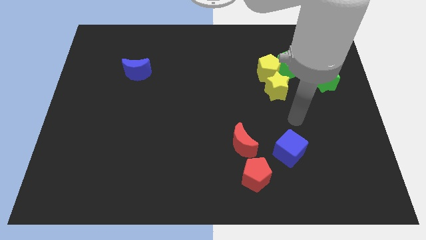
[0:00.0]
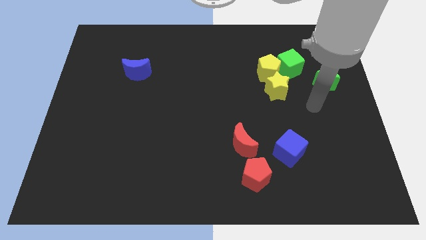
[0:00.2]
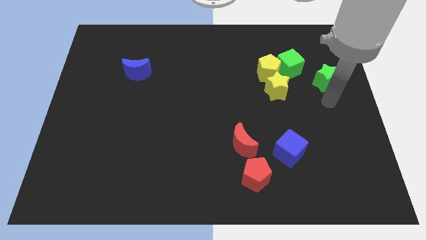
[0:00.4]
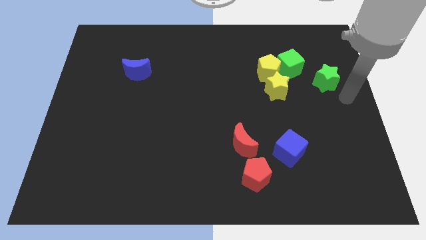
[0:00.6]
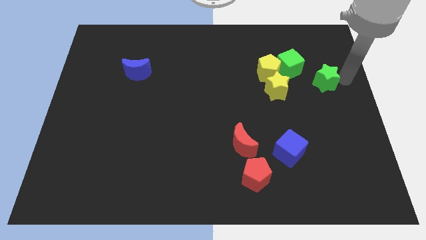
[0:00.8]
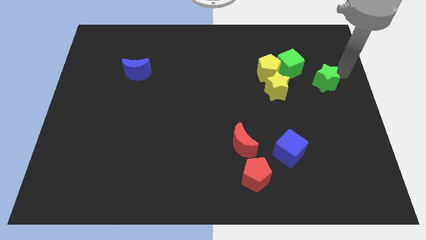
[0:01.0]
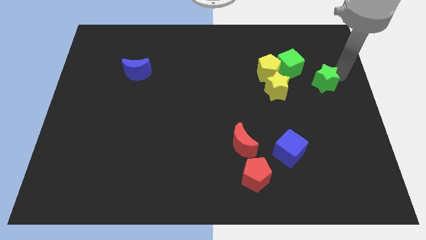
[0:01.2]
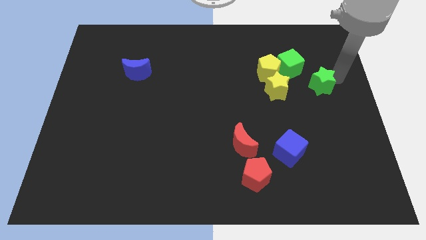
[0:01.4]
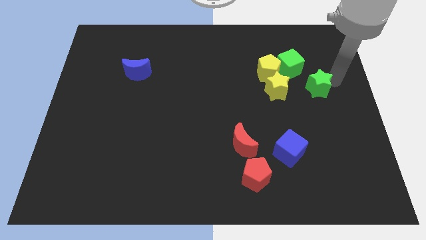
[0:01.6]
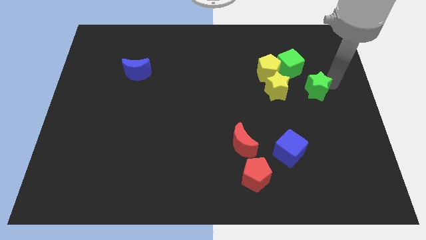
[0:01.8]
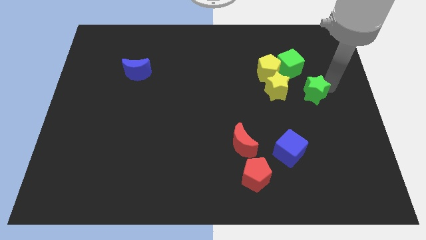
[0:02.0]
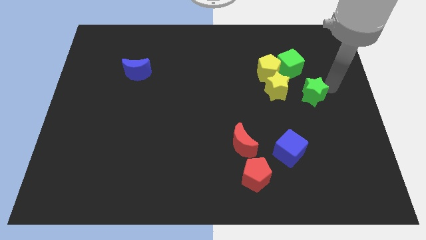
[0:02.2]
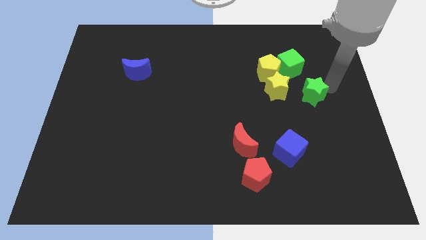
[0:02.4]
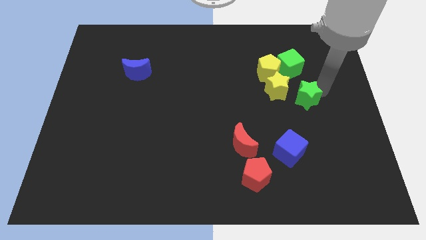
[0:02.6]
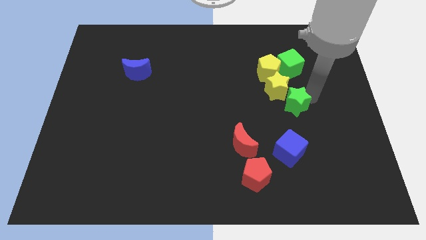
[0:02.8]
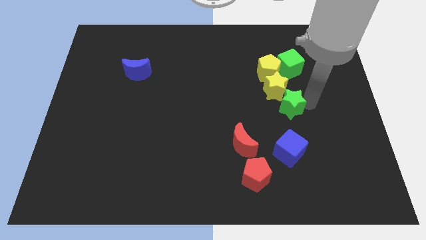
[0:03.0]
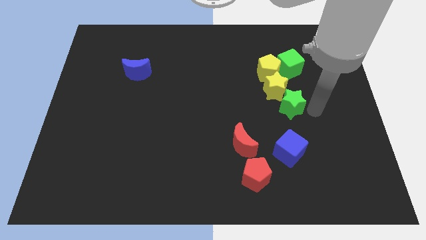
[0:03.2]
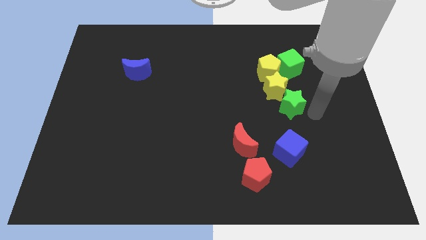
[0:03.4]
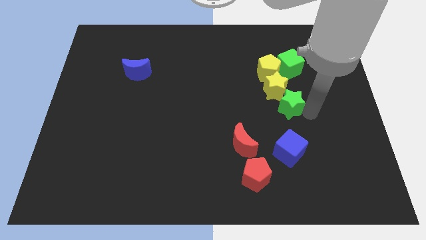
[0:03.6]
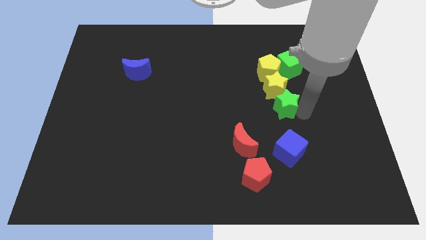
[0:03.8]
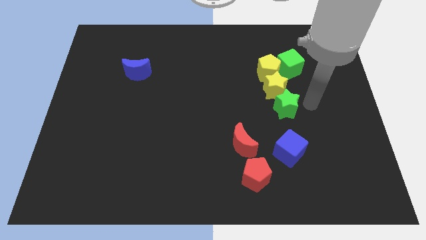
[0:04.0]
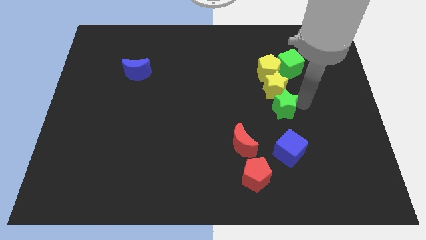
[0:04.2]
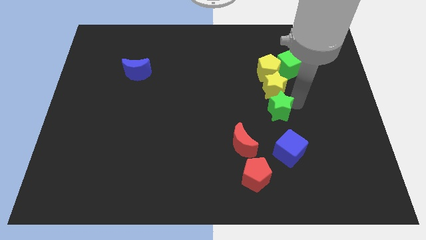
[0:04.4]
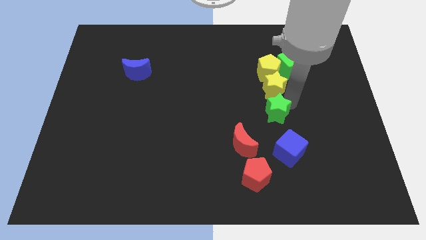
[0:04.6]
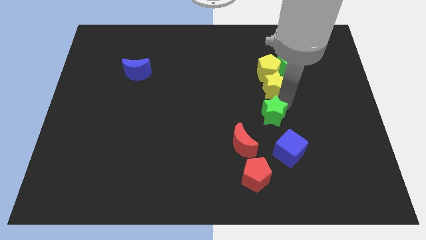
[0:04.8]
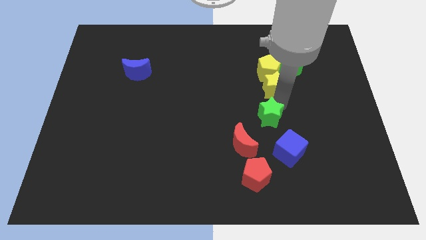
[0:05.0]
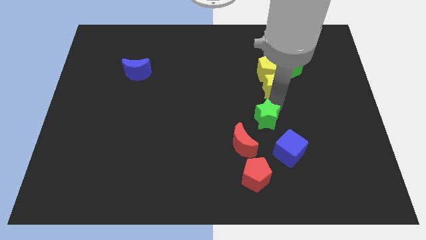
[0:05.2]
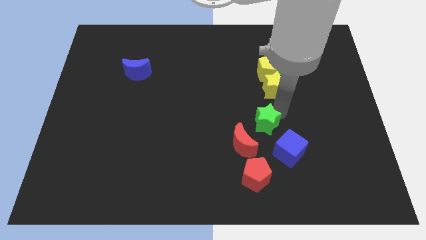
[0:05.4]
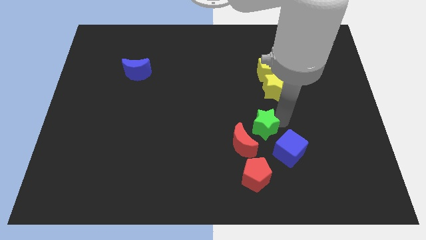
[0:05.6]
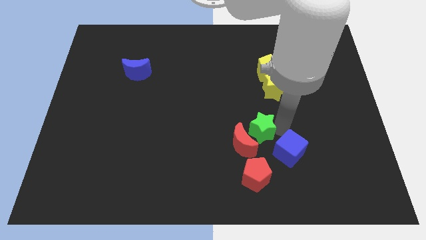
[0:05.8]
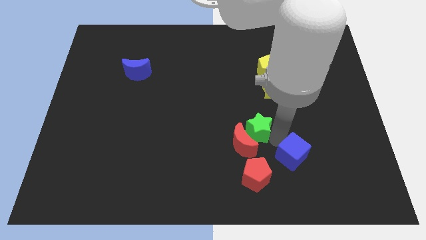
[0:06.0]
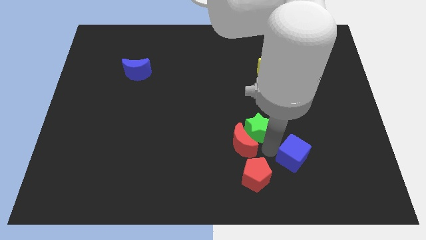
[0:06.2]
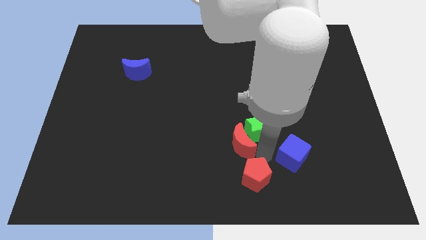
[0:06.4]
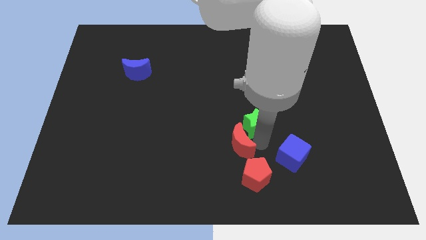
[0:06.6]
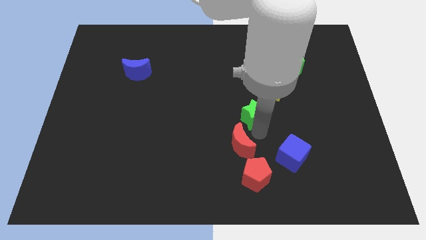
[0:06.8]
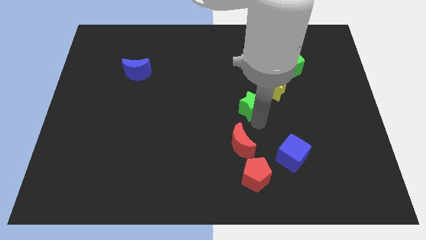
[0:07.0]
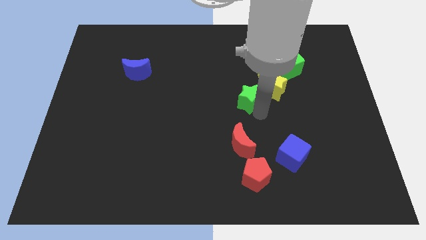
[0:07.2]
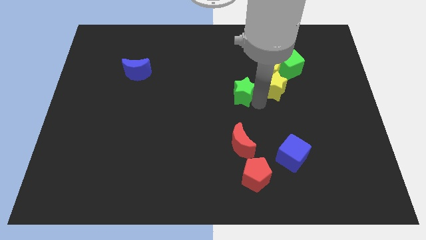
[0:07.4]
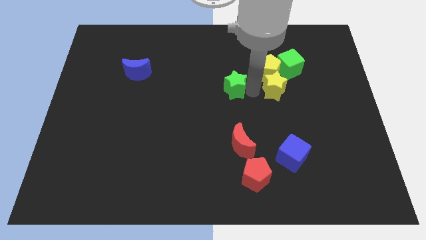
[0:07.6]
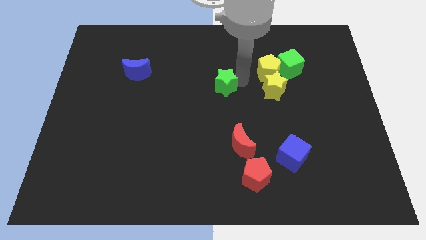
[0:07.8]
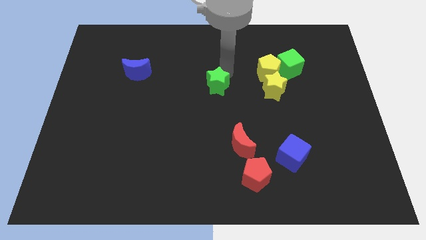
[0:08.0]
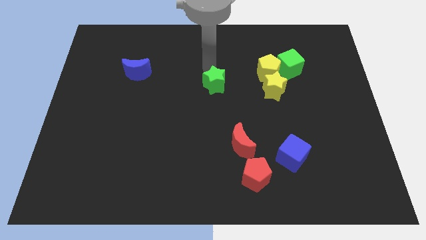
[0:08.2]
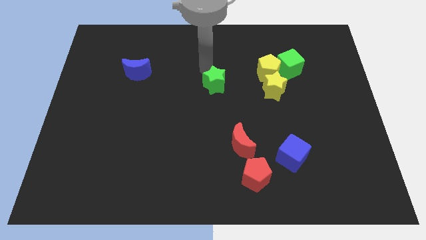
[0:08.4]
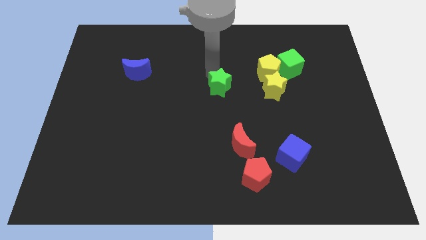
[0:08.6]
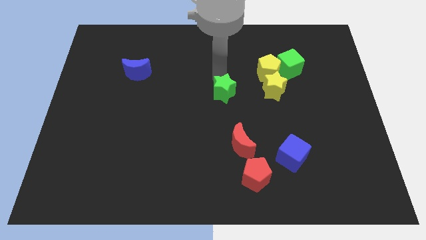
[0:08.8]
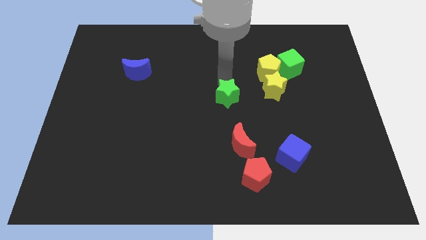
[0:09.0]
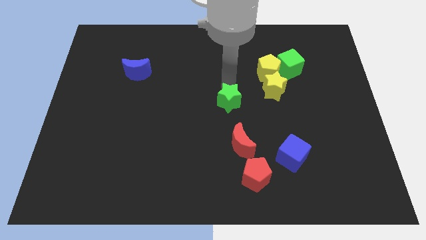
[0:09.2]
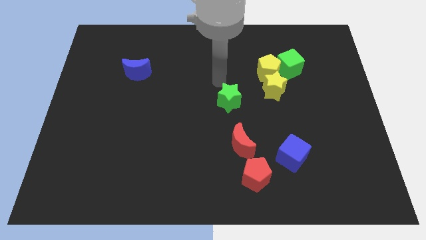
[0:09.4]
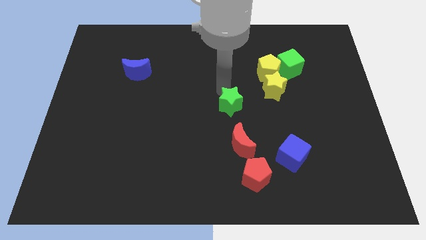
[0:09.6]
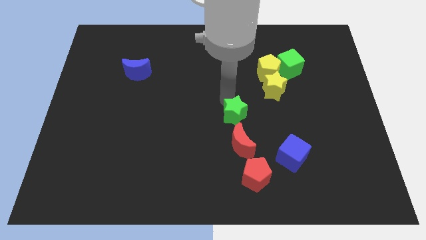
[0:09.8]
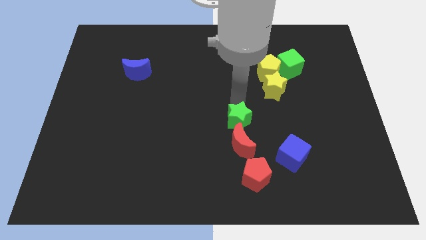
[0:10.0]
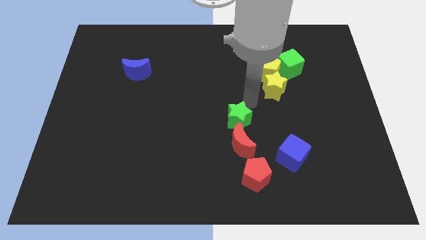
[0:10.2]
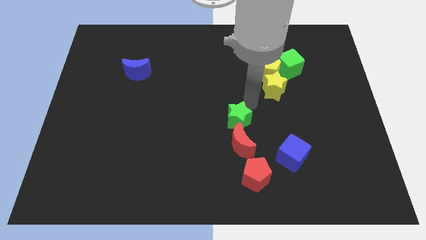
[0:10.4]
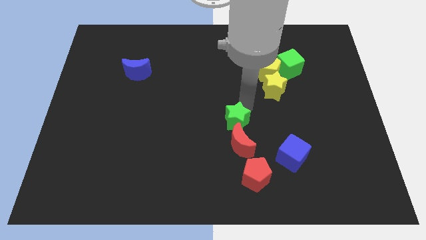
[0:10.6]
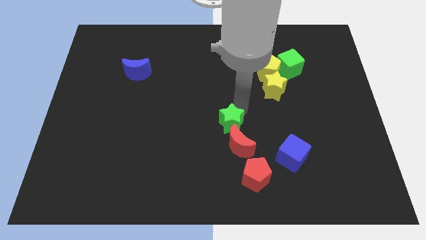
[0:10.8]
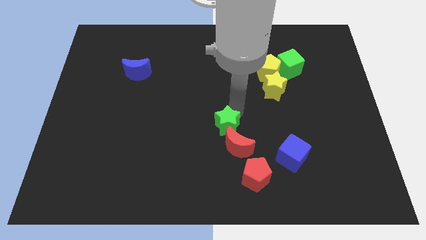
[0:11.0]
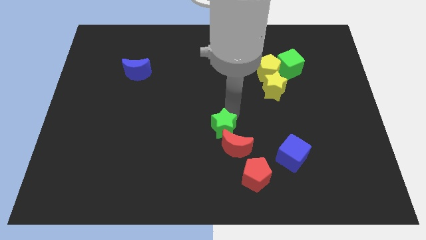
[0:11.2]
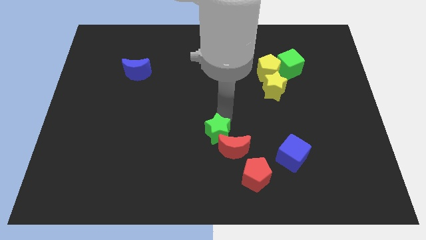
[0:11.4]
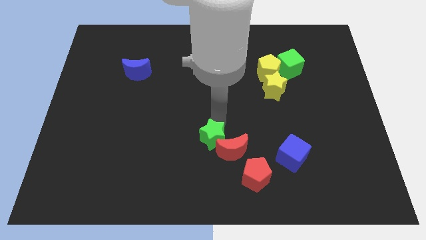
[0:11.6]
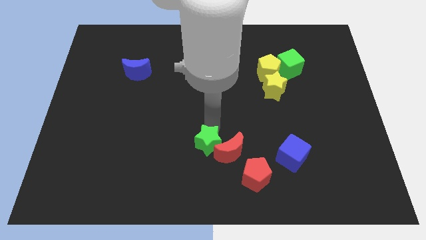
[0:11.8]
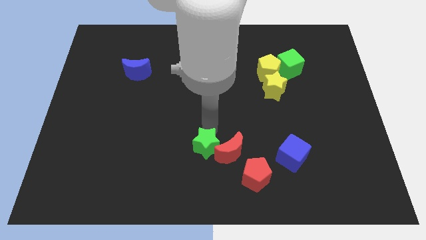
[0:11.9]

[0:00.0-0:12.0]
push the green star diagonally down and to the left of the red moon

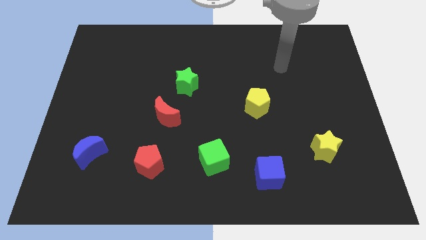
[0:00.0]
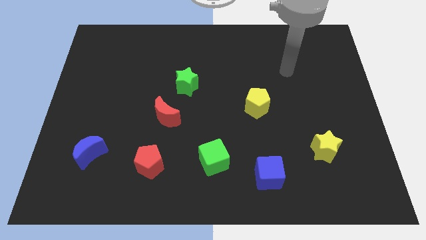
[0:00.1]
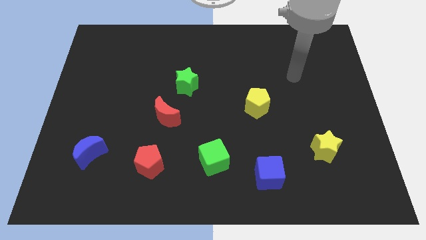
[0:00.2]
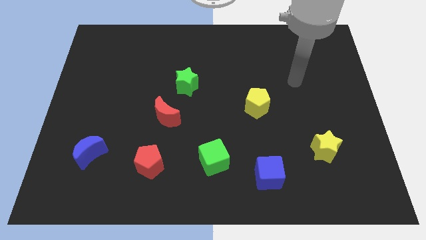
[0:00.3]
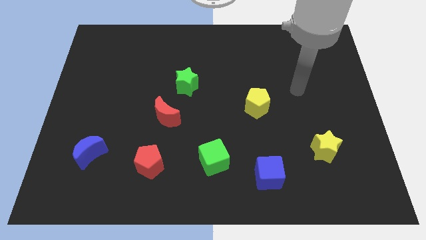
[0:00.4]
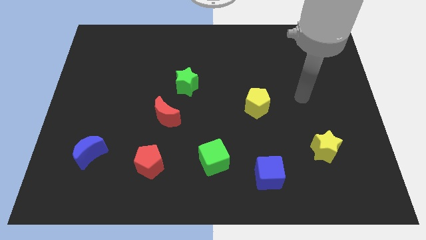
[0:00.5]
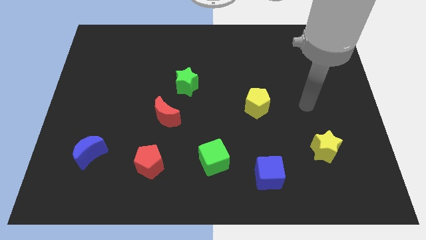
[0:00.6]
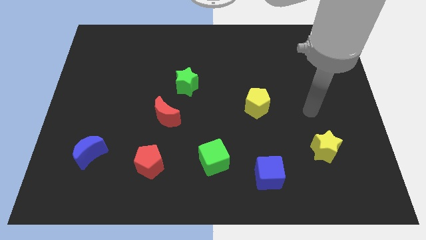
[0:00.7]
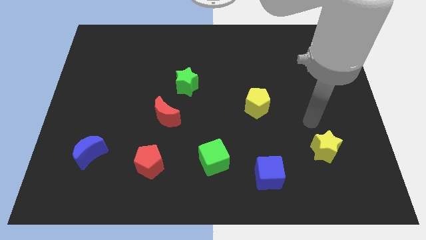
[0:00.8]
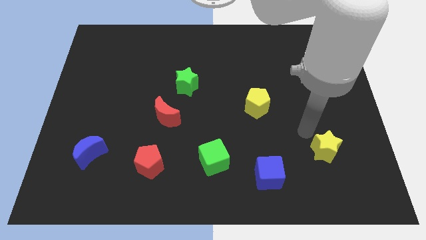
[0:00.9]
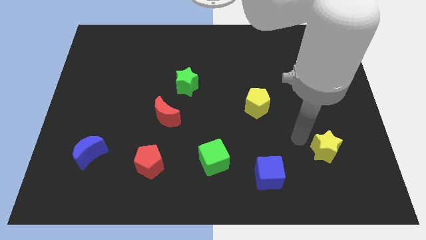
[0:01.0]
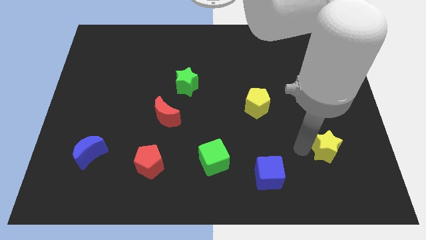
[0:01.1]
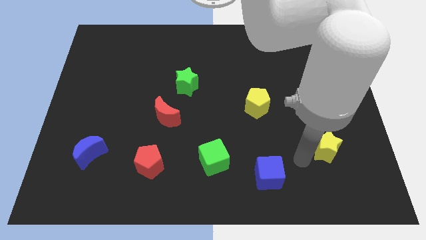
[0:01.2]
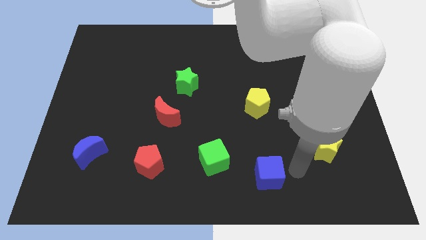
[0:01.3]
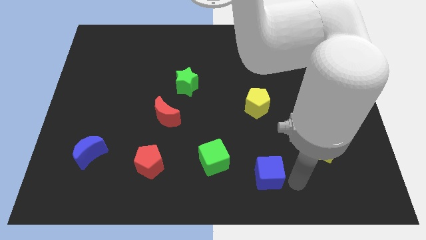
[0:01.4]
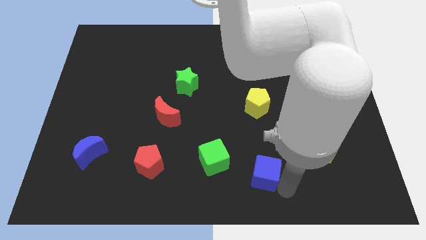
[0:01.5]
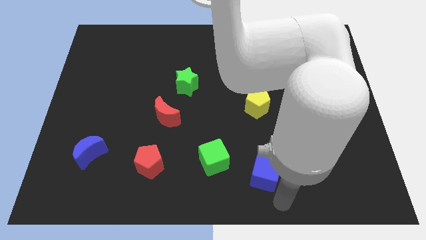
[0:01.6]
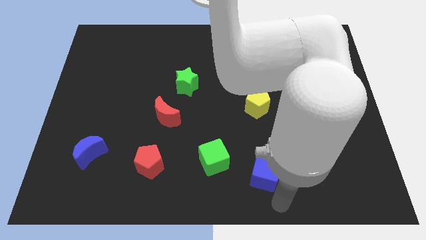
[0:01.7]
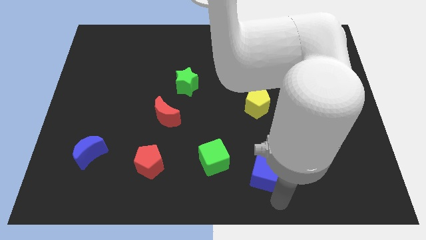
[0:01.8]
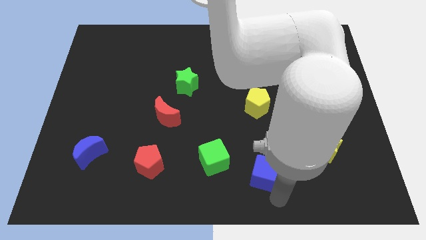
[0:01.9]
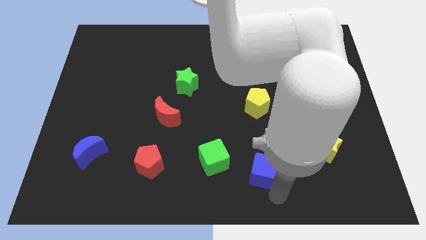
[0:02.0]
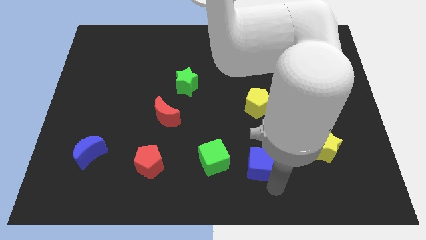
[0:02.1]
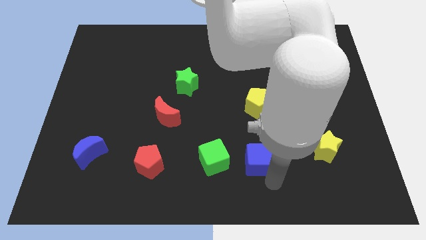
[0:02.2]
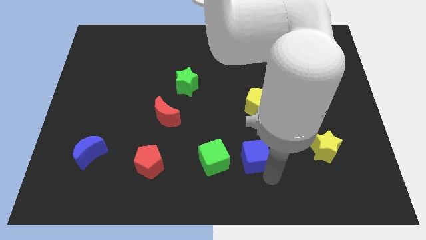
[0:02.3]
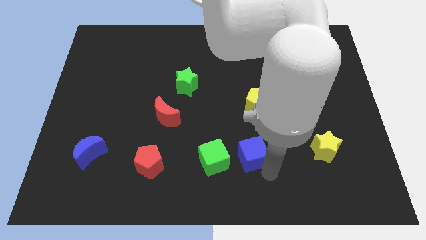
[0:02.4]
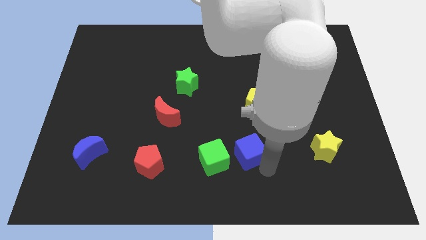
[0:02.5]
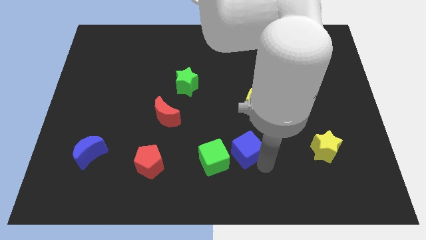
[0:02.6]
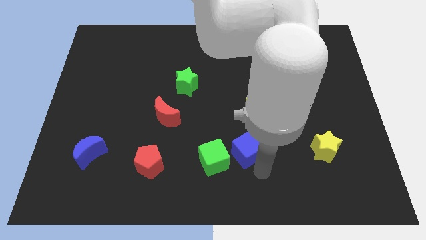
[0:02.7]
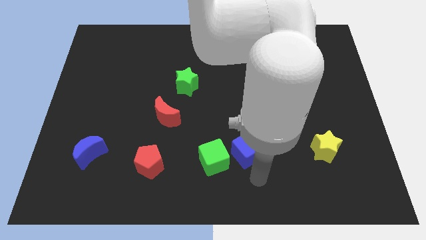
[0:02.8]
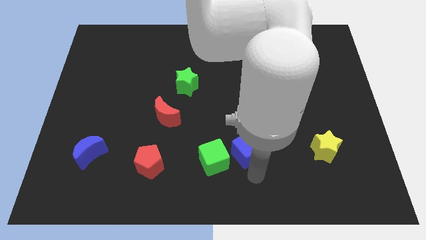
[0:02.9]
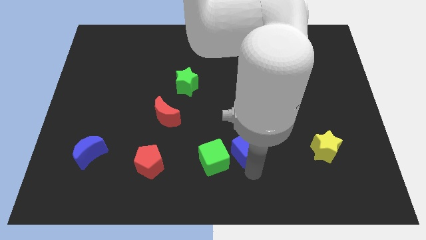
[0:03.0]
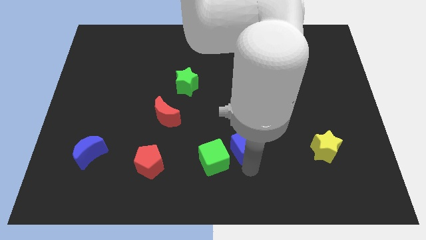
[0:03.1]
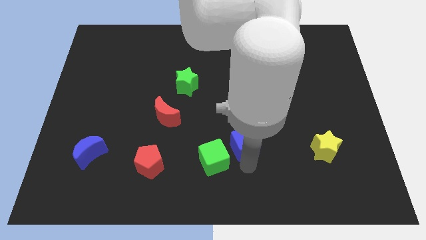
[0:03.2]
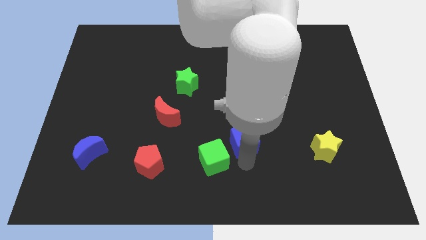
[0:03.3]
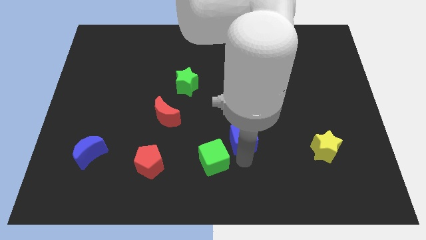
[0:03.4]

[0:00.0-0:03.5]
push the blue cube diagonally down and to the left of the yellow pentagon
